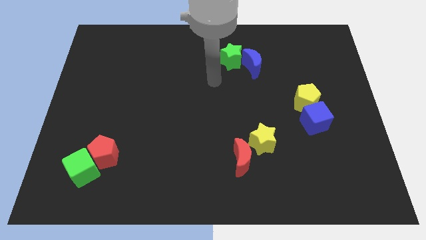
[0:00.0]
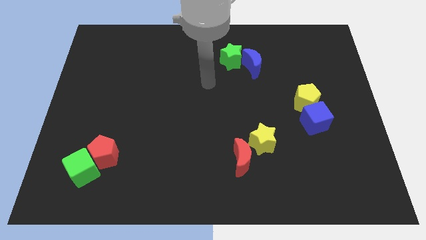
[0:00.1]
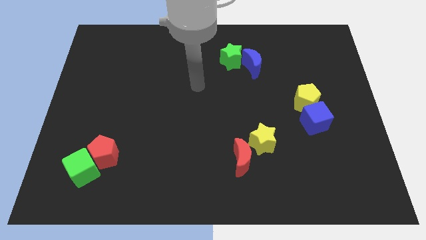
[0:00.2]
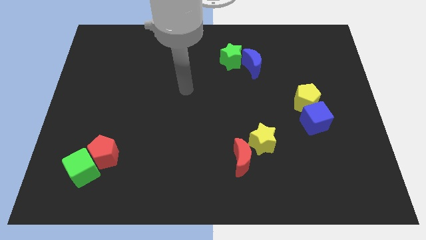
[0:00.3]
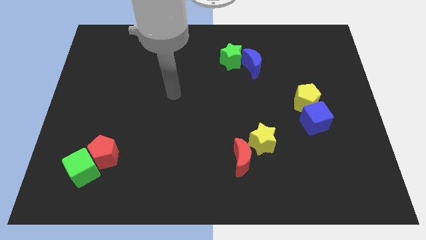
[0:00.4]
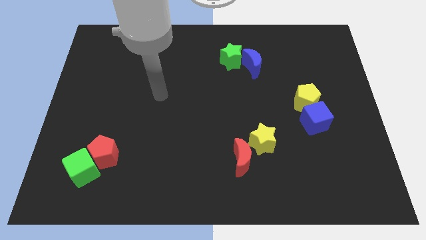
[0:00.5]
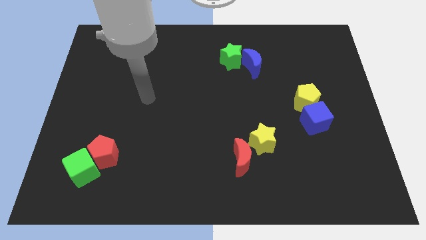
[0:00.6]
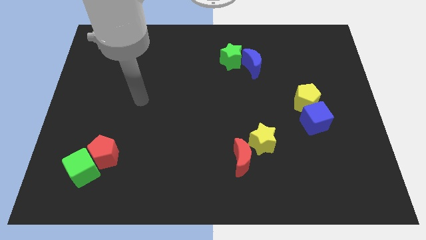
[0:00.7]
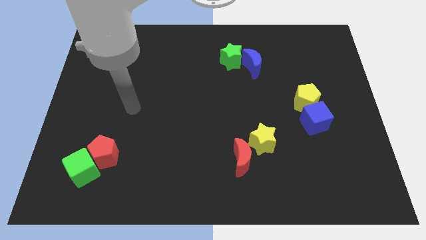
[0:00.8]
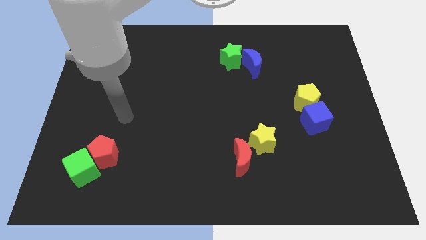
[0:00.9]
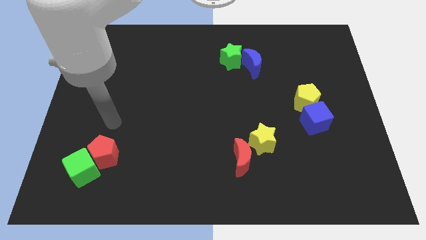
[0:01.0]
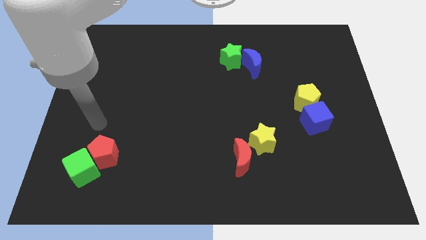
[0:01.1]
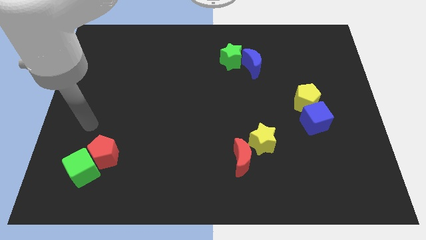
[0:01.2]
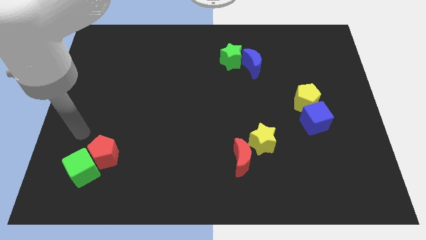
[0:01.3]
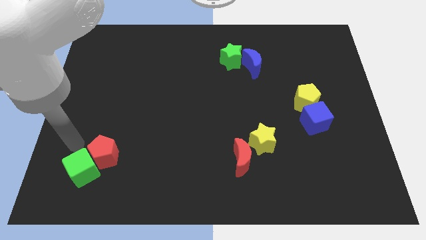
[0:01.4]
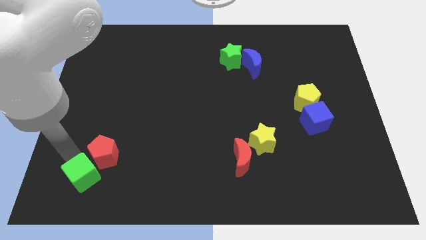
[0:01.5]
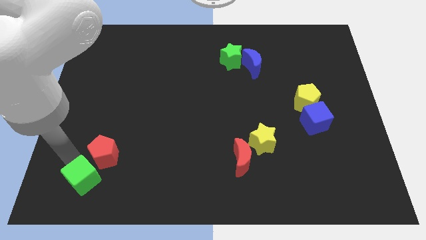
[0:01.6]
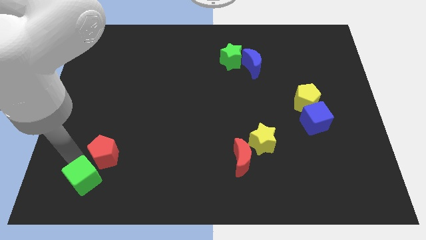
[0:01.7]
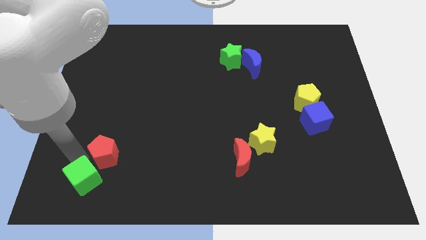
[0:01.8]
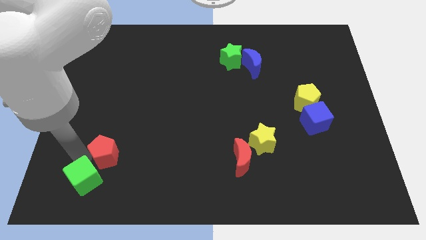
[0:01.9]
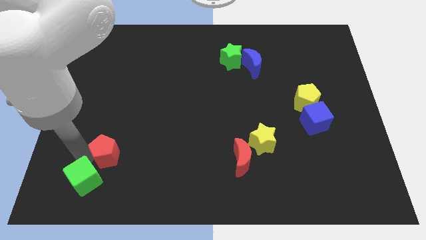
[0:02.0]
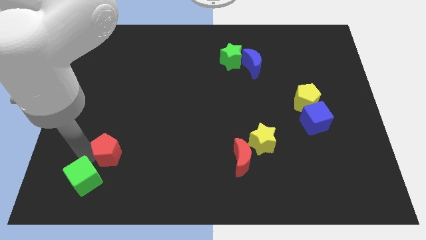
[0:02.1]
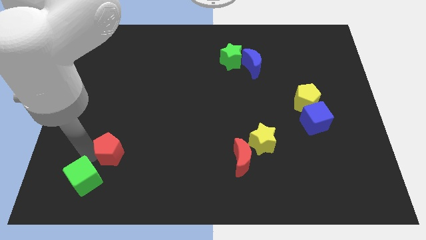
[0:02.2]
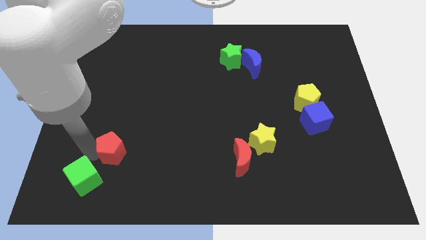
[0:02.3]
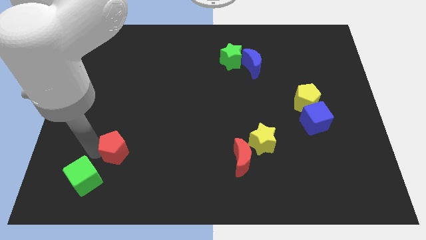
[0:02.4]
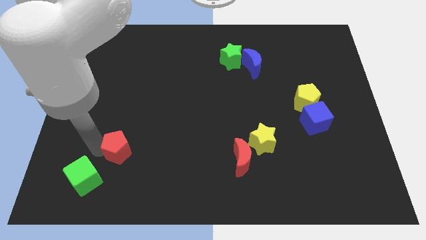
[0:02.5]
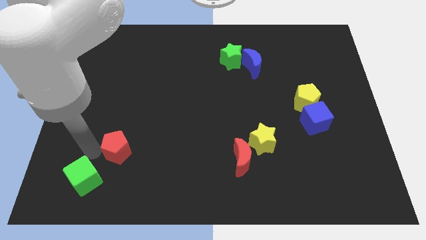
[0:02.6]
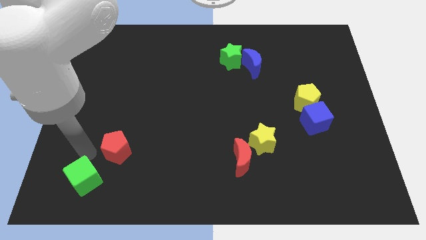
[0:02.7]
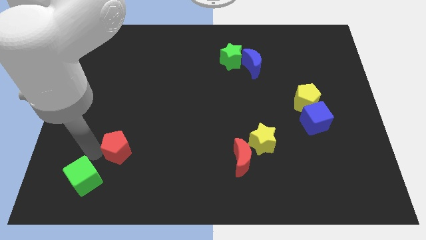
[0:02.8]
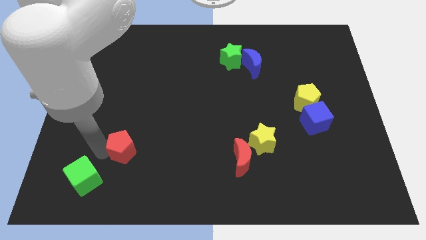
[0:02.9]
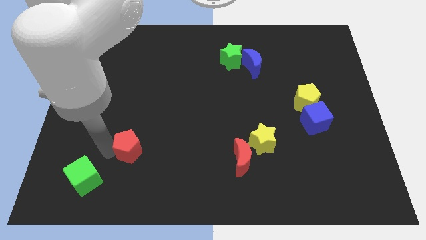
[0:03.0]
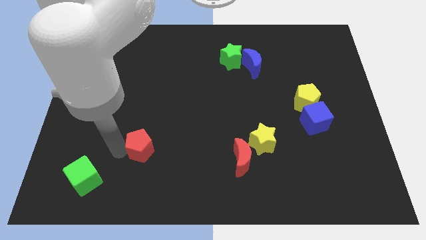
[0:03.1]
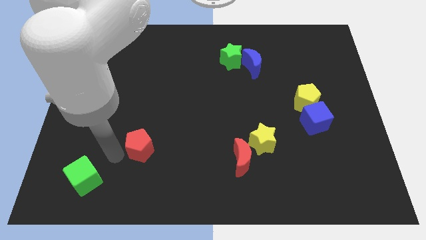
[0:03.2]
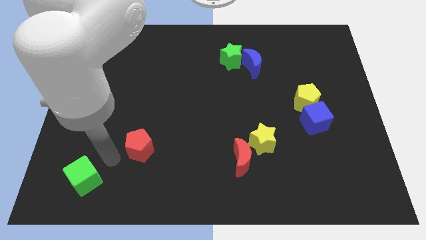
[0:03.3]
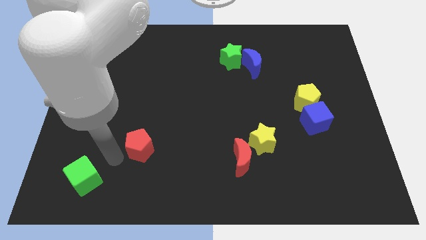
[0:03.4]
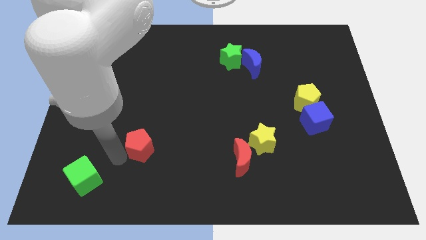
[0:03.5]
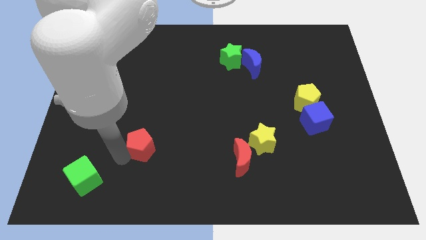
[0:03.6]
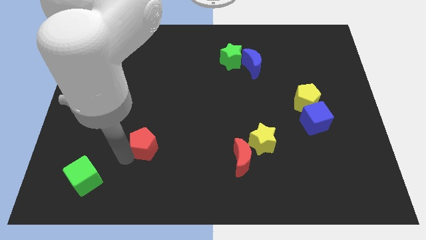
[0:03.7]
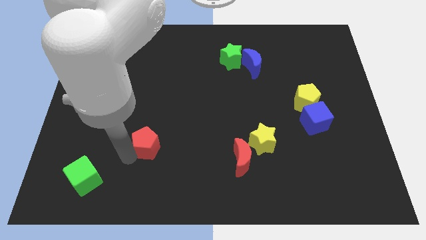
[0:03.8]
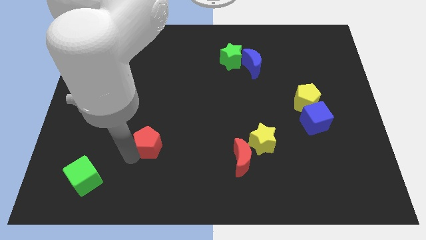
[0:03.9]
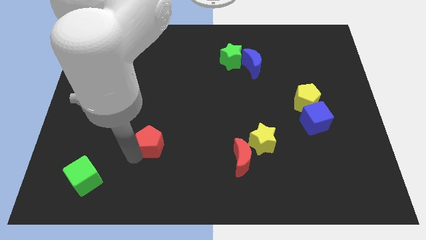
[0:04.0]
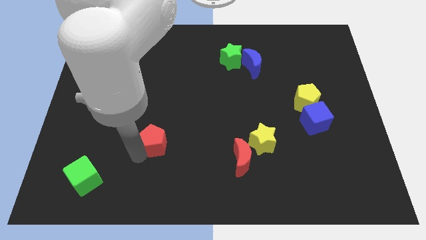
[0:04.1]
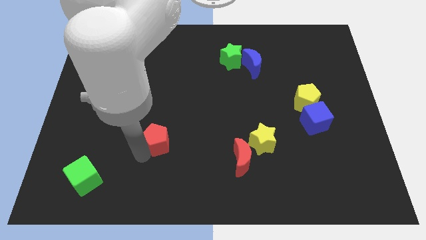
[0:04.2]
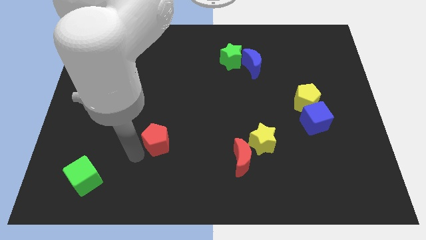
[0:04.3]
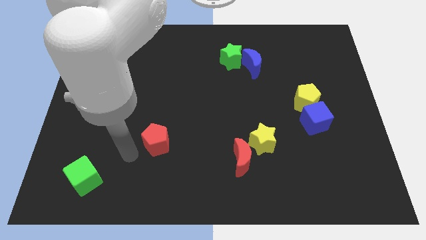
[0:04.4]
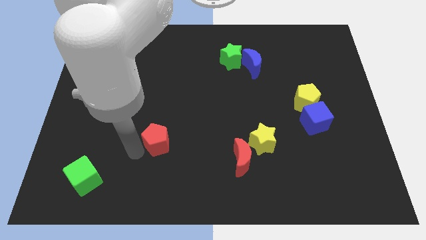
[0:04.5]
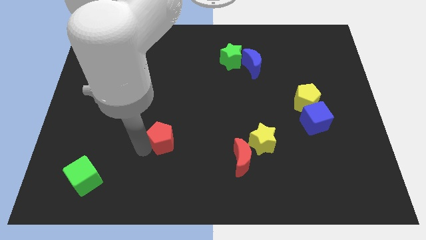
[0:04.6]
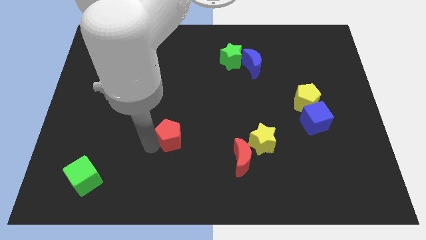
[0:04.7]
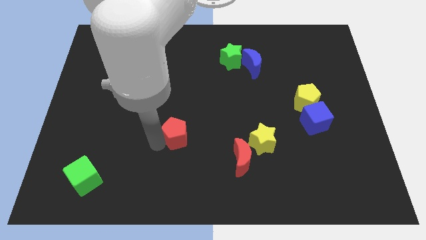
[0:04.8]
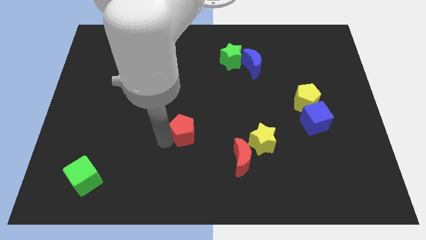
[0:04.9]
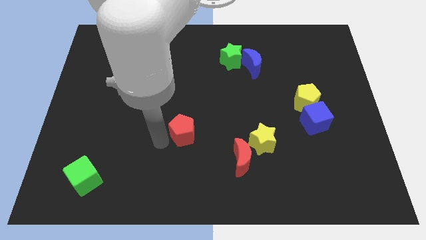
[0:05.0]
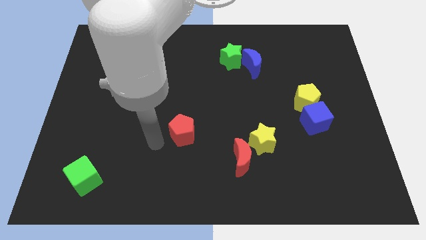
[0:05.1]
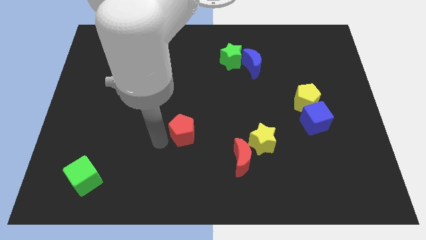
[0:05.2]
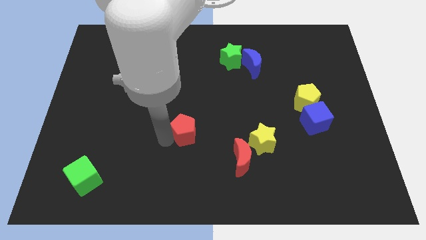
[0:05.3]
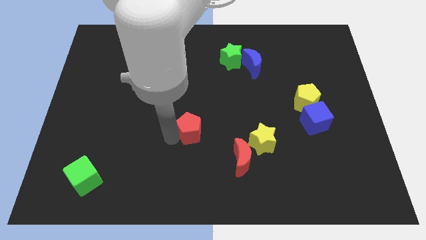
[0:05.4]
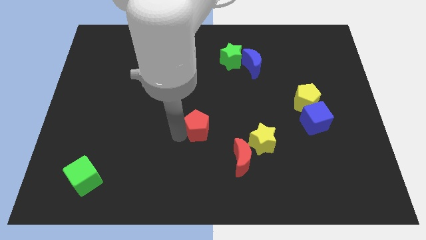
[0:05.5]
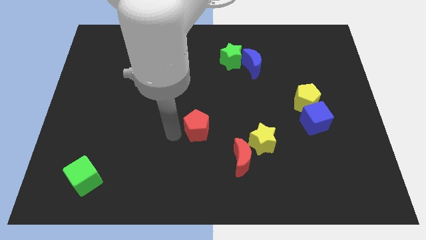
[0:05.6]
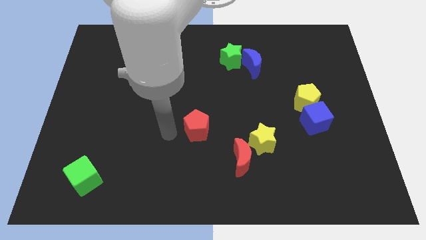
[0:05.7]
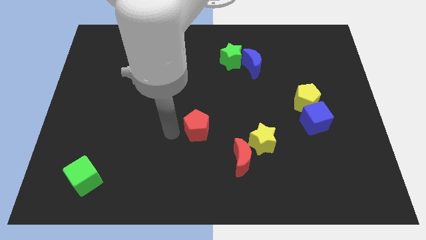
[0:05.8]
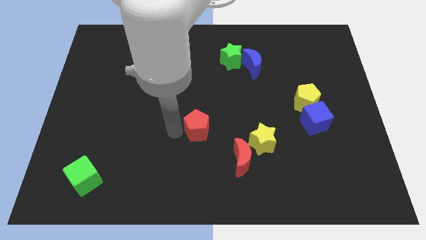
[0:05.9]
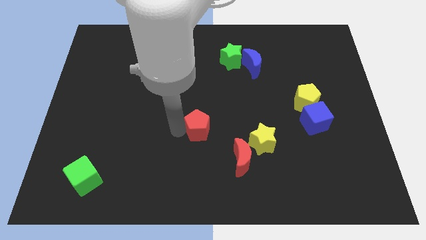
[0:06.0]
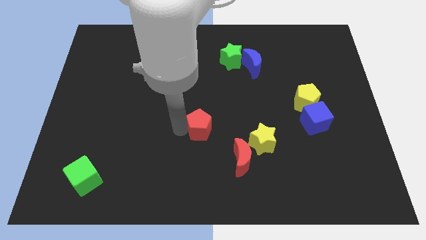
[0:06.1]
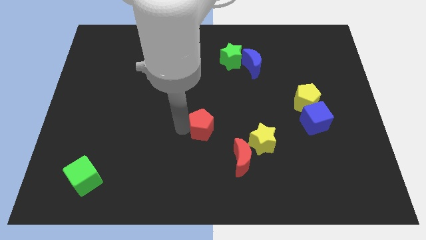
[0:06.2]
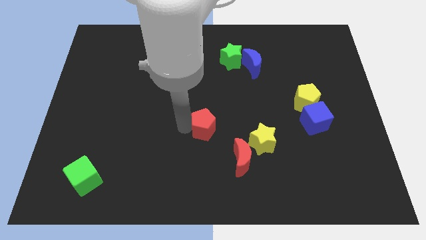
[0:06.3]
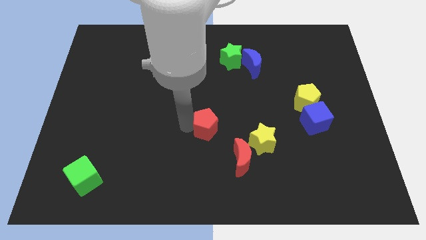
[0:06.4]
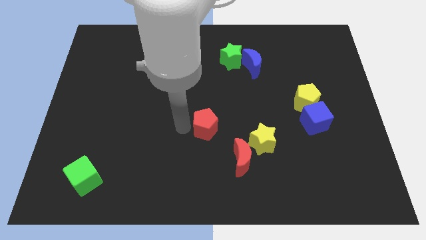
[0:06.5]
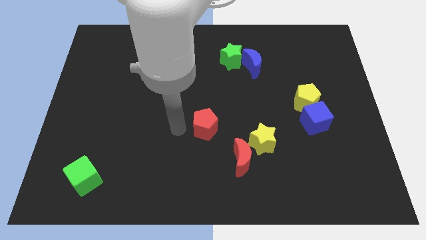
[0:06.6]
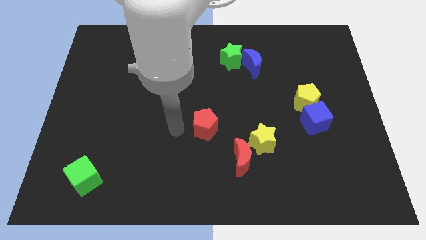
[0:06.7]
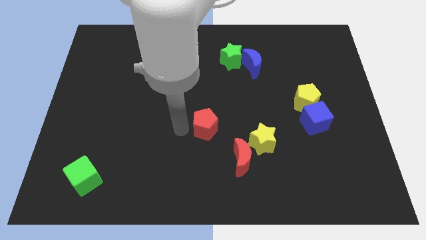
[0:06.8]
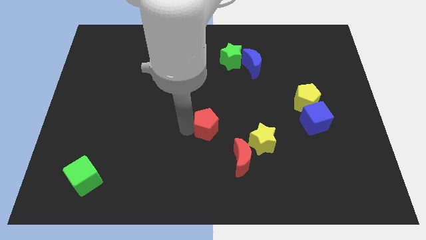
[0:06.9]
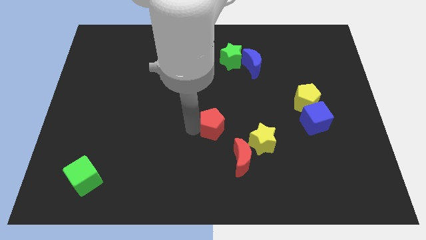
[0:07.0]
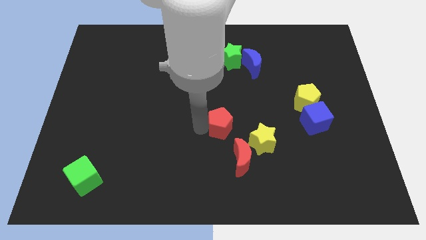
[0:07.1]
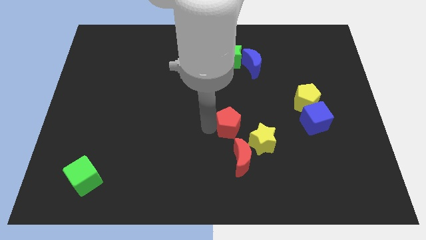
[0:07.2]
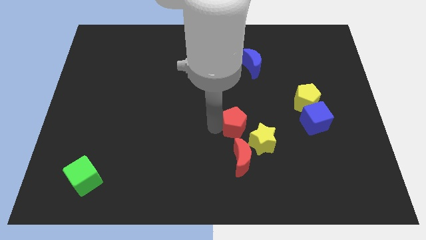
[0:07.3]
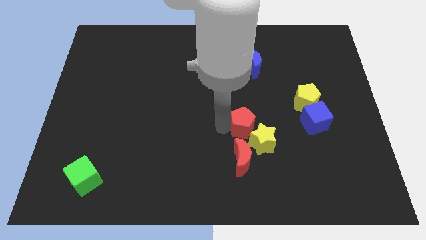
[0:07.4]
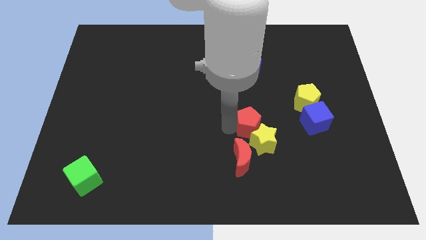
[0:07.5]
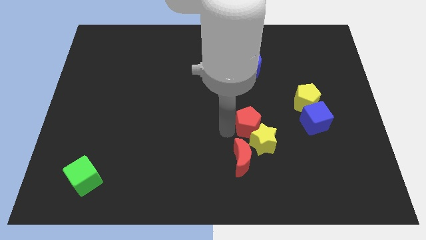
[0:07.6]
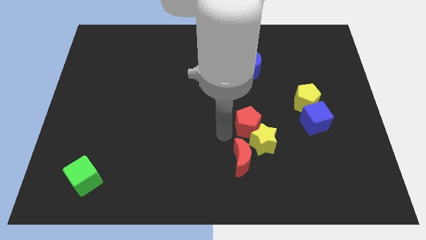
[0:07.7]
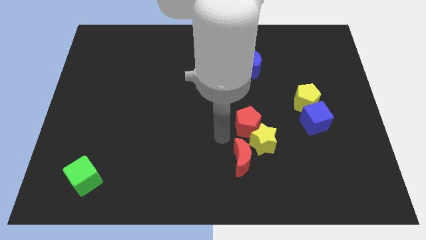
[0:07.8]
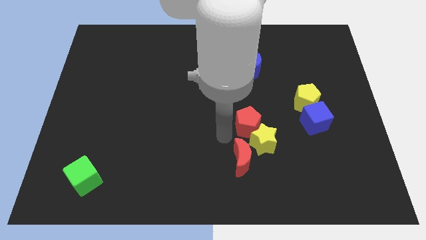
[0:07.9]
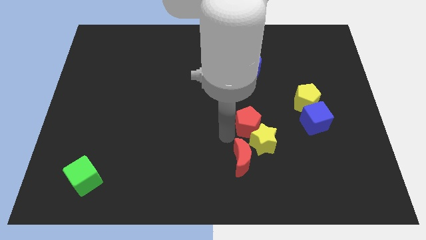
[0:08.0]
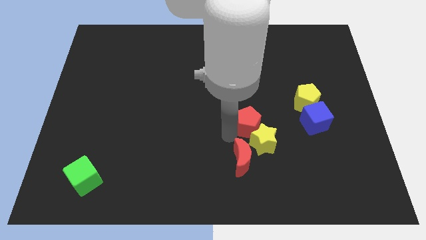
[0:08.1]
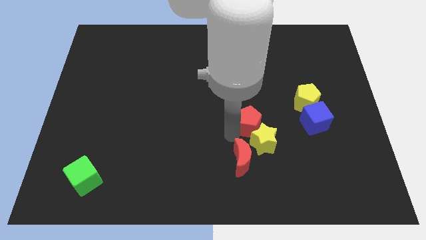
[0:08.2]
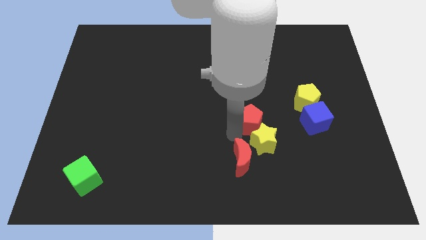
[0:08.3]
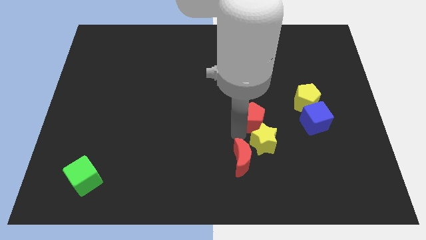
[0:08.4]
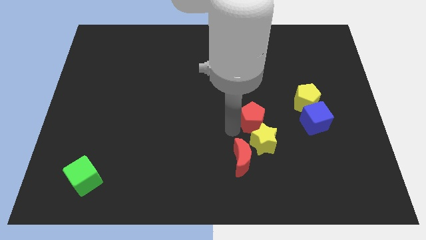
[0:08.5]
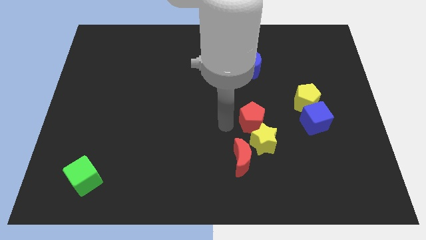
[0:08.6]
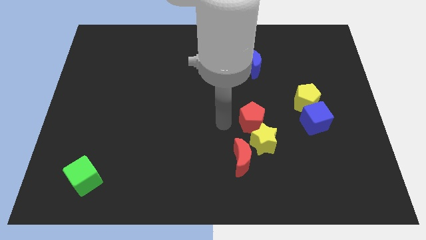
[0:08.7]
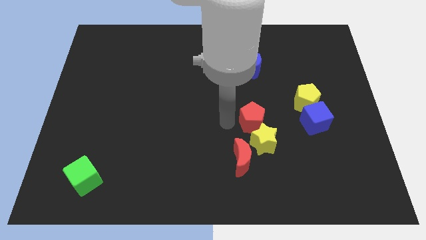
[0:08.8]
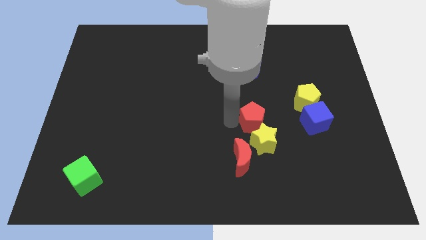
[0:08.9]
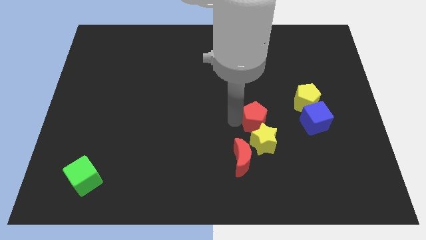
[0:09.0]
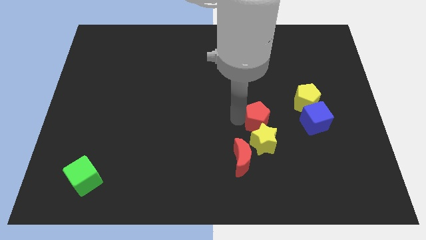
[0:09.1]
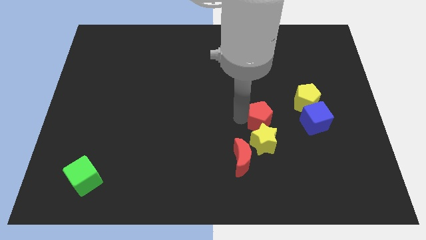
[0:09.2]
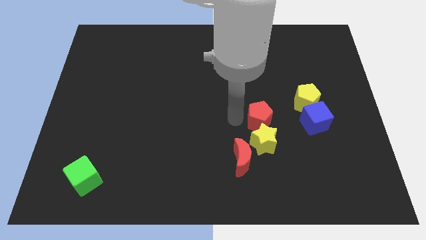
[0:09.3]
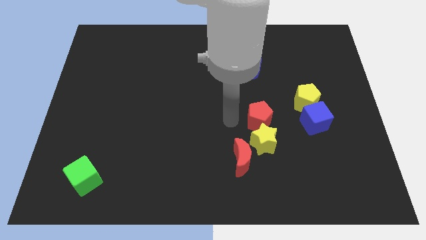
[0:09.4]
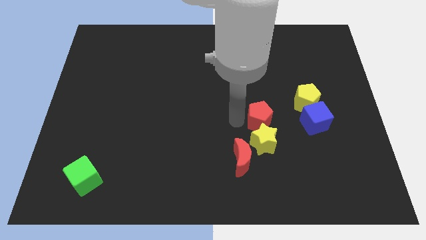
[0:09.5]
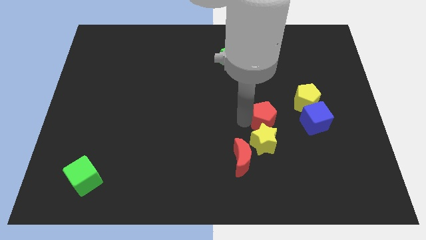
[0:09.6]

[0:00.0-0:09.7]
slide the red pentagon to the bottom left of the yellow pentagon
